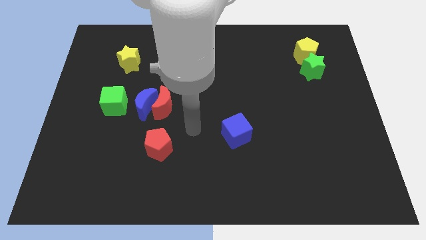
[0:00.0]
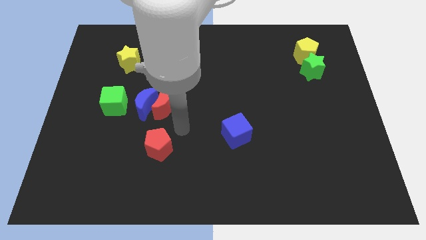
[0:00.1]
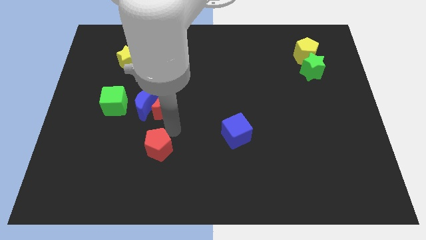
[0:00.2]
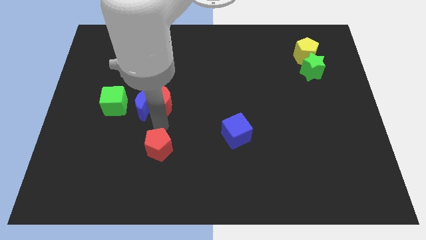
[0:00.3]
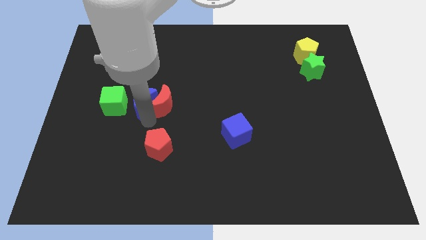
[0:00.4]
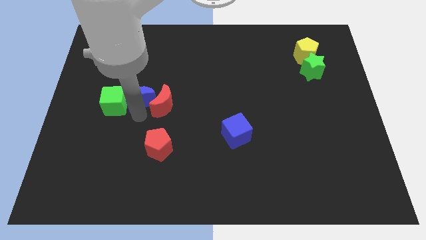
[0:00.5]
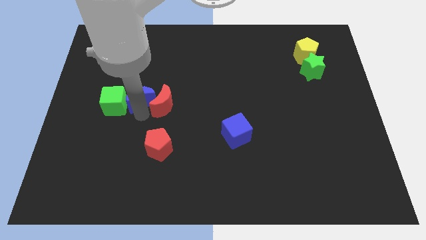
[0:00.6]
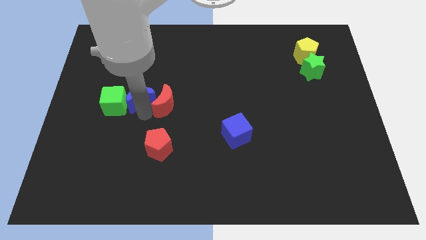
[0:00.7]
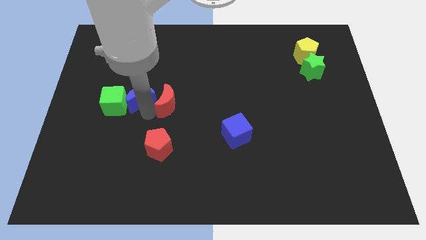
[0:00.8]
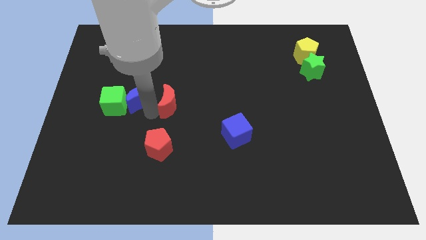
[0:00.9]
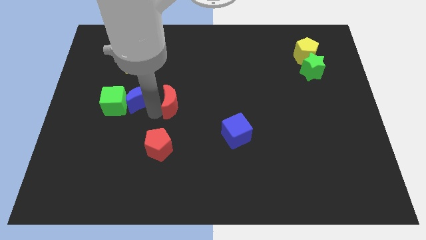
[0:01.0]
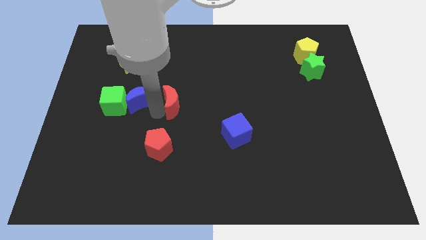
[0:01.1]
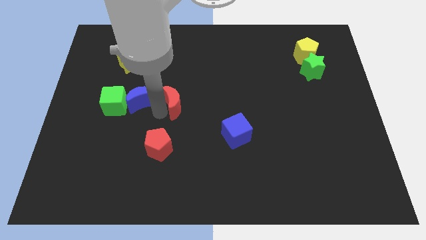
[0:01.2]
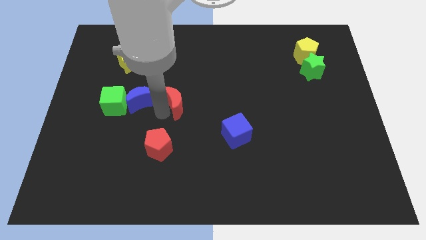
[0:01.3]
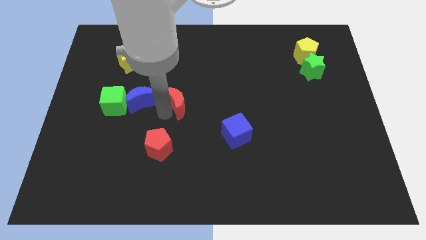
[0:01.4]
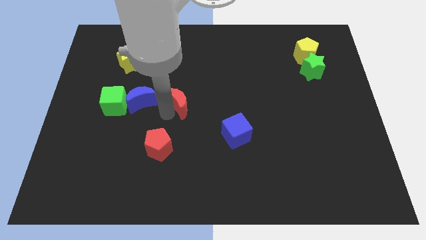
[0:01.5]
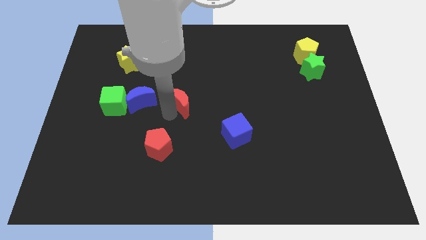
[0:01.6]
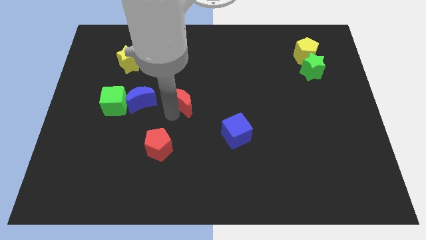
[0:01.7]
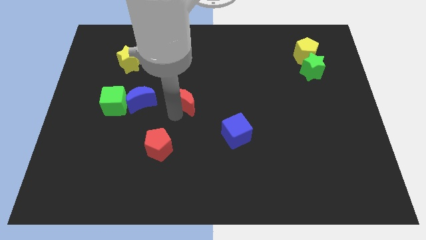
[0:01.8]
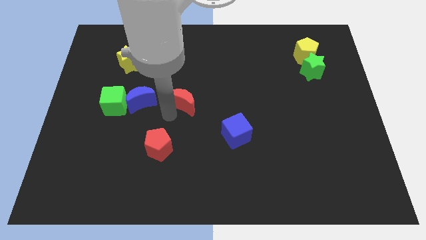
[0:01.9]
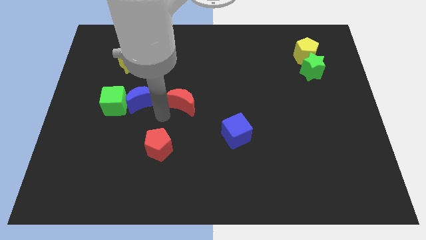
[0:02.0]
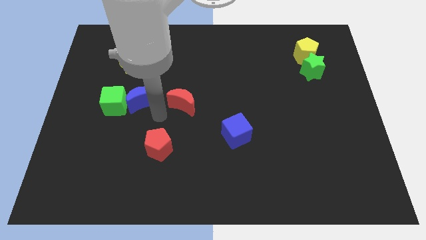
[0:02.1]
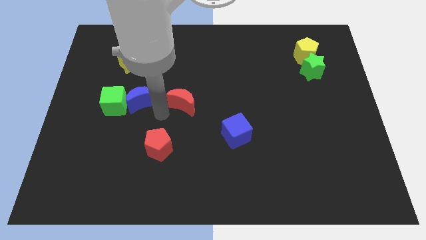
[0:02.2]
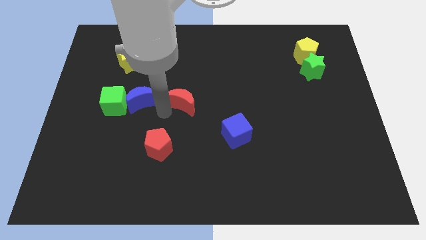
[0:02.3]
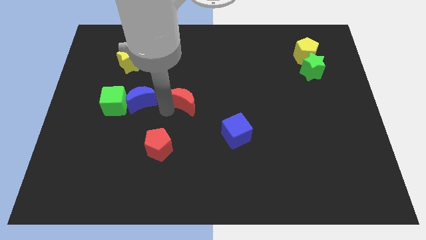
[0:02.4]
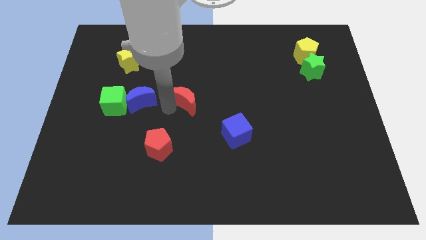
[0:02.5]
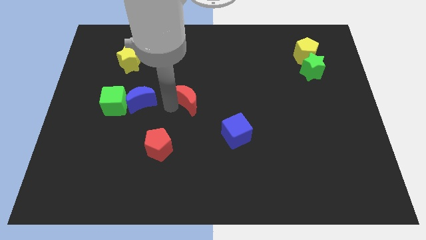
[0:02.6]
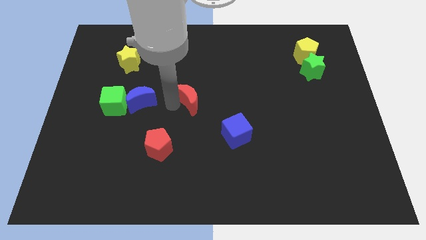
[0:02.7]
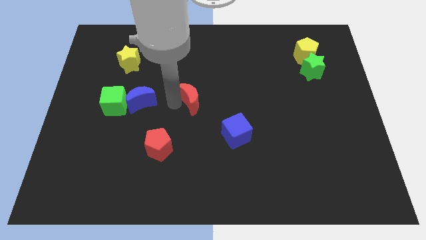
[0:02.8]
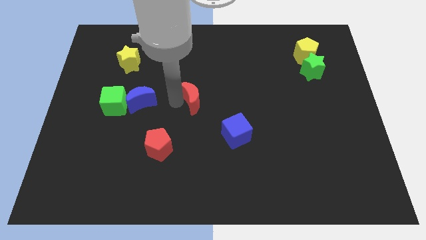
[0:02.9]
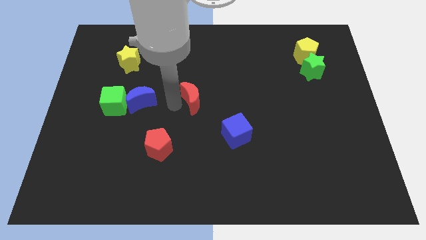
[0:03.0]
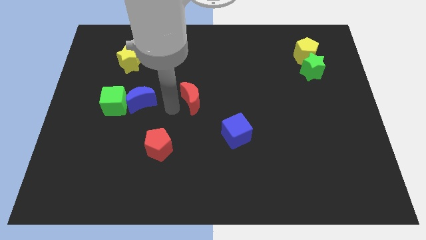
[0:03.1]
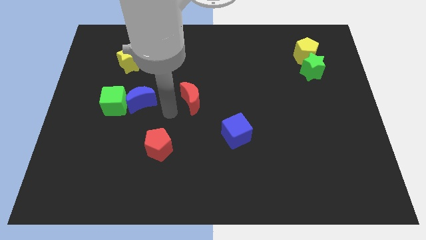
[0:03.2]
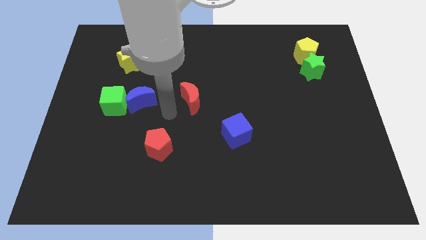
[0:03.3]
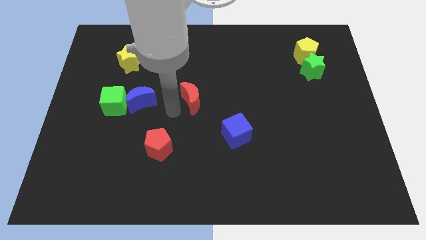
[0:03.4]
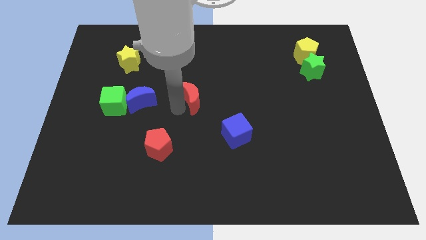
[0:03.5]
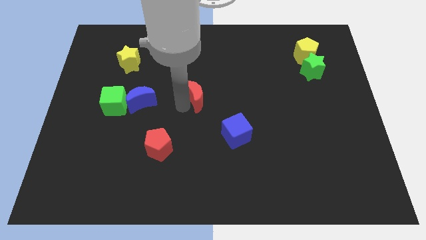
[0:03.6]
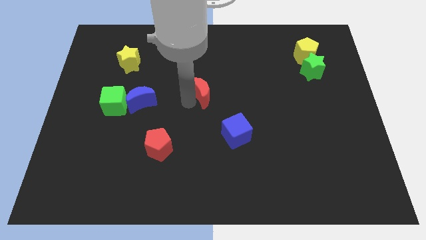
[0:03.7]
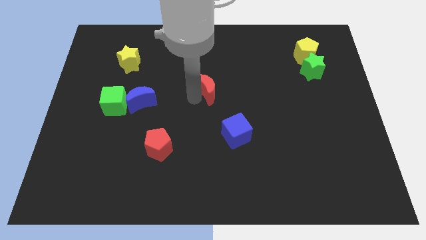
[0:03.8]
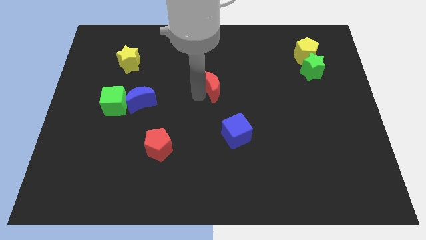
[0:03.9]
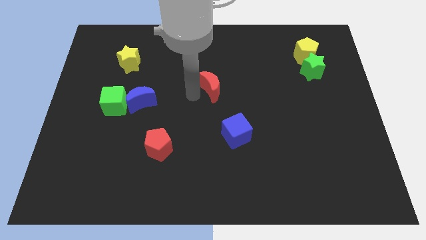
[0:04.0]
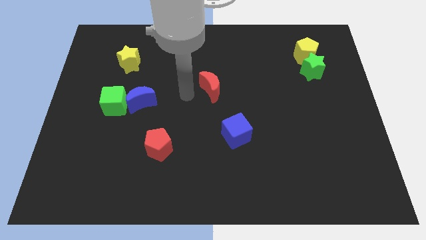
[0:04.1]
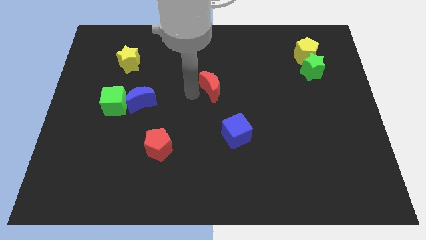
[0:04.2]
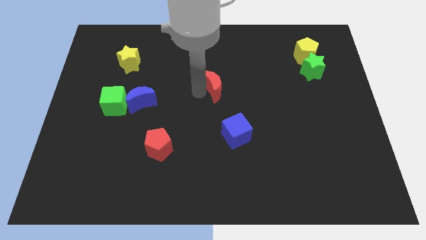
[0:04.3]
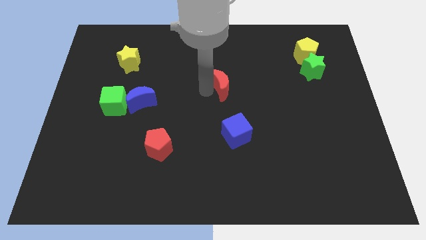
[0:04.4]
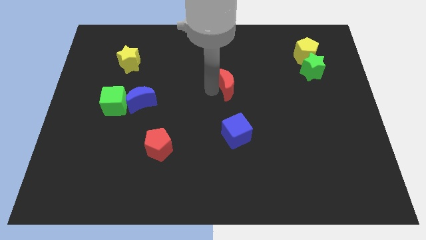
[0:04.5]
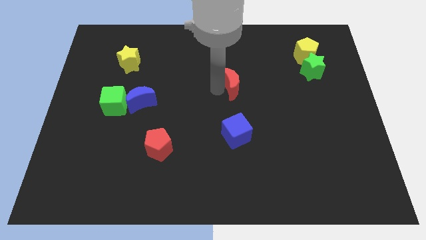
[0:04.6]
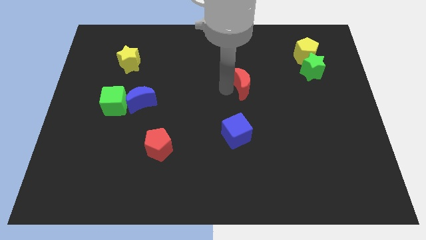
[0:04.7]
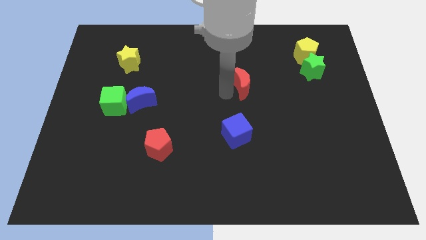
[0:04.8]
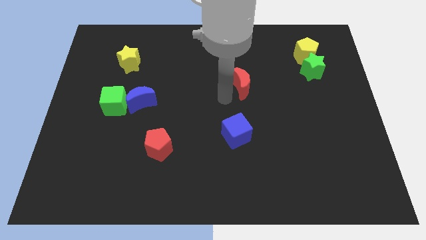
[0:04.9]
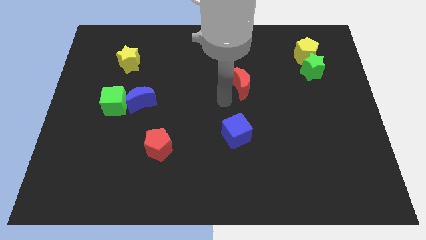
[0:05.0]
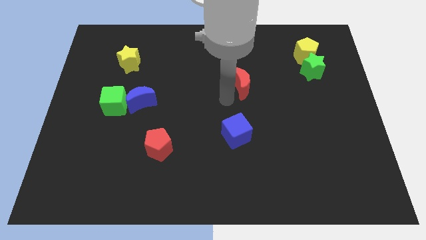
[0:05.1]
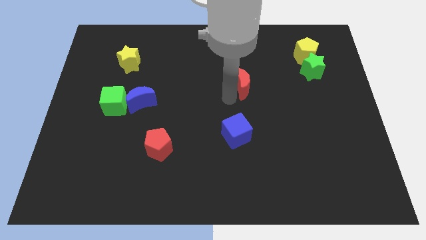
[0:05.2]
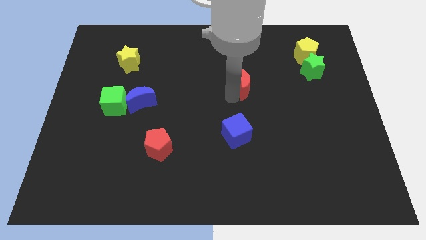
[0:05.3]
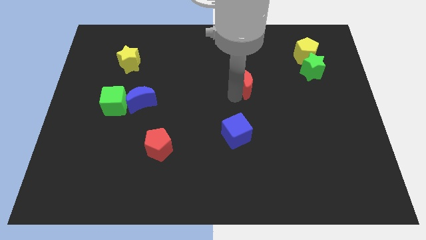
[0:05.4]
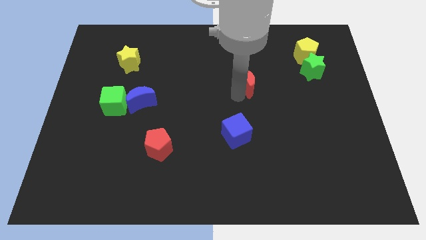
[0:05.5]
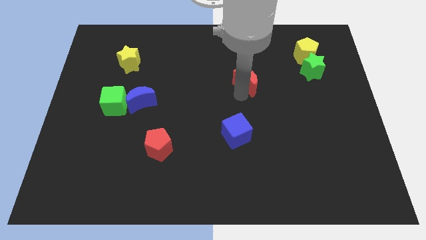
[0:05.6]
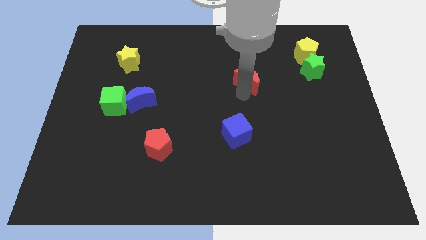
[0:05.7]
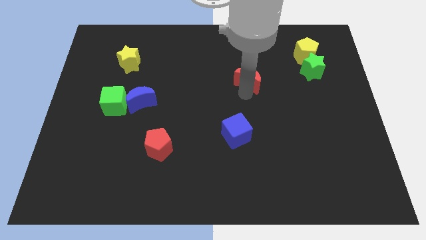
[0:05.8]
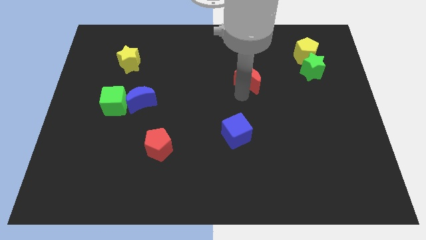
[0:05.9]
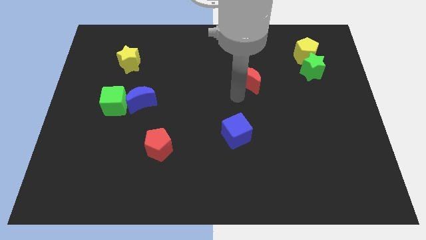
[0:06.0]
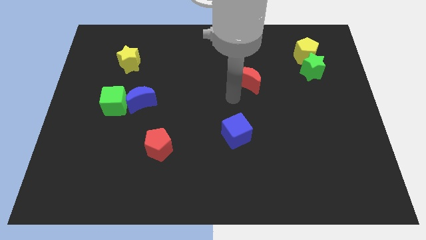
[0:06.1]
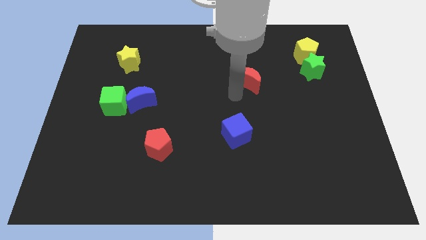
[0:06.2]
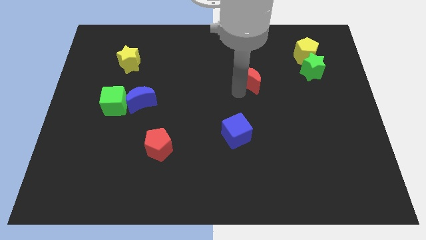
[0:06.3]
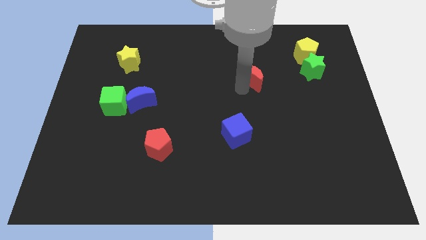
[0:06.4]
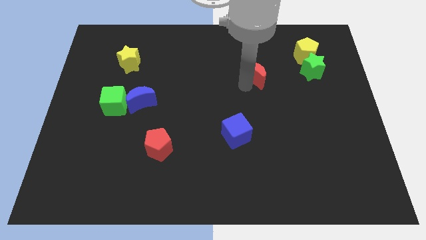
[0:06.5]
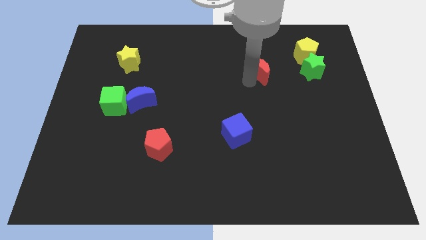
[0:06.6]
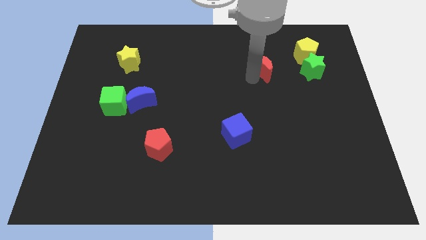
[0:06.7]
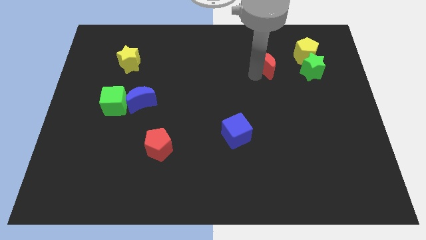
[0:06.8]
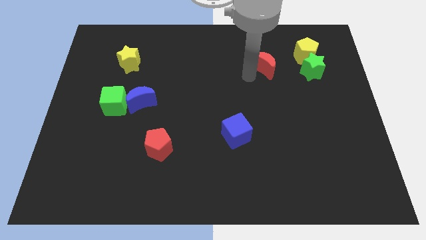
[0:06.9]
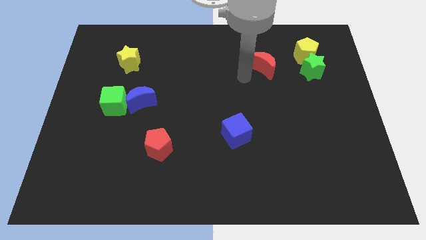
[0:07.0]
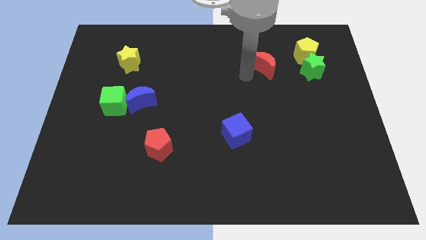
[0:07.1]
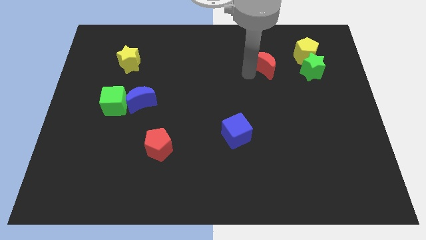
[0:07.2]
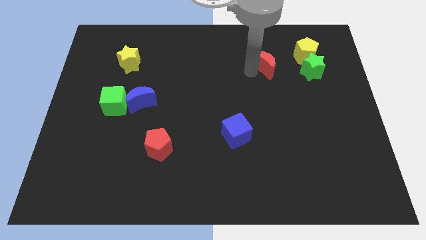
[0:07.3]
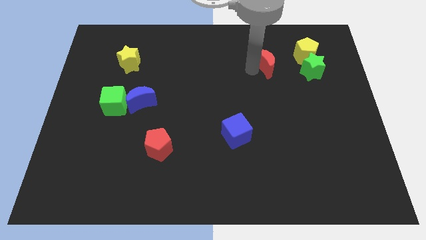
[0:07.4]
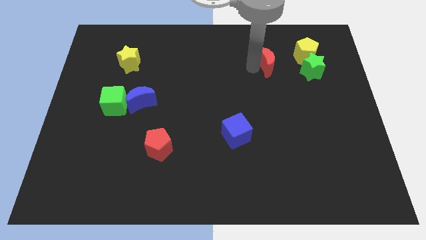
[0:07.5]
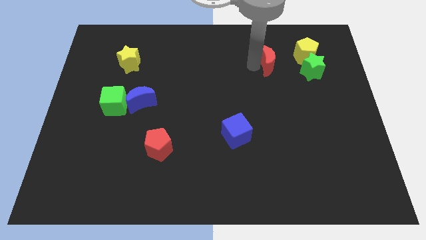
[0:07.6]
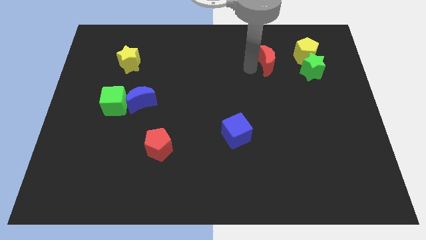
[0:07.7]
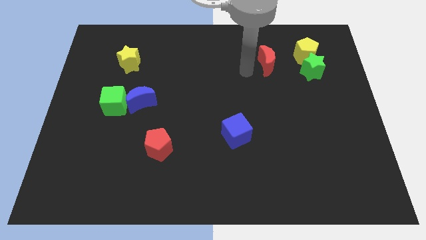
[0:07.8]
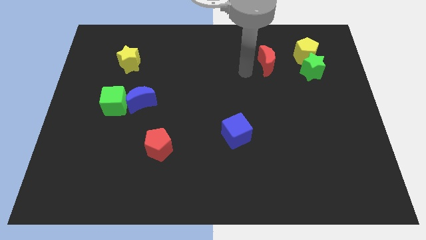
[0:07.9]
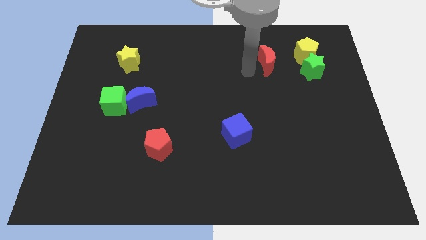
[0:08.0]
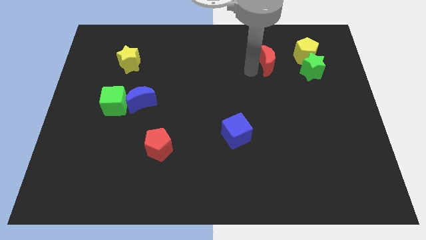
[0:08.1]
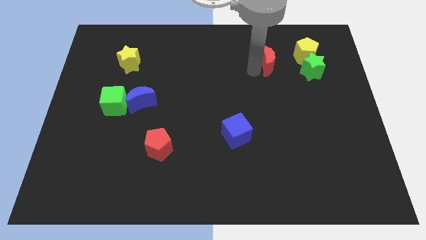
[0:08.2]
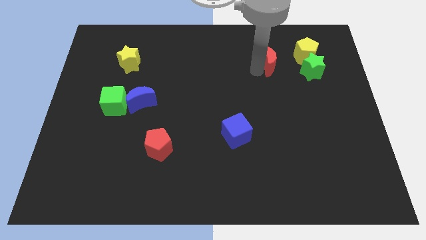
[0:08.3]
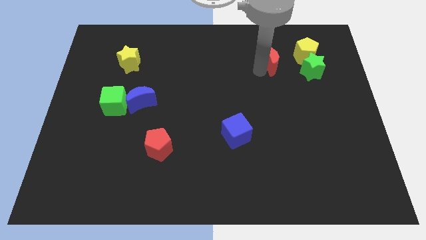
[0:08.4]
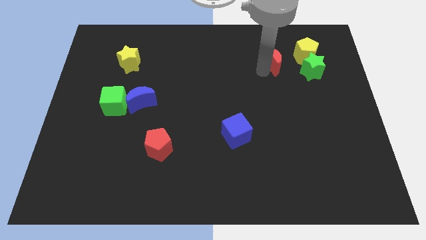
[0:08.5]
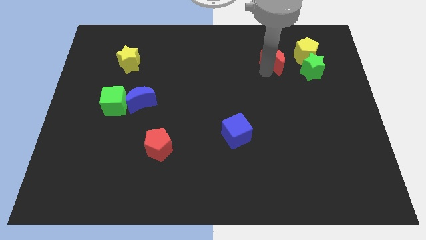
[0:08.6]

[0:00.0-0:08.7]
put the red moon to the top left side of the green star
